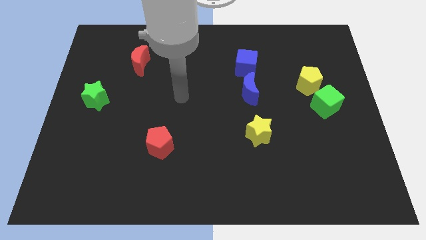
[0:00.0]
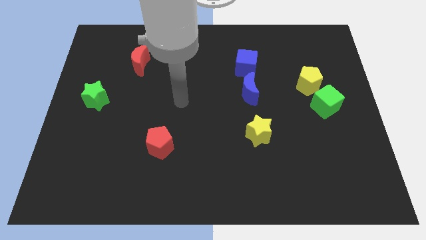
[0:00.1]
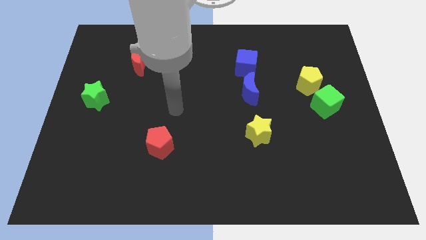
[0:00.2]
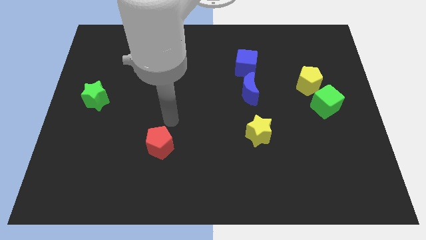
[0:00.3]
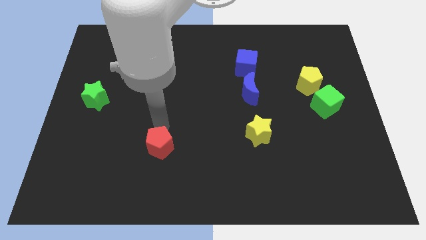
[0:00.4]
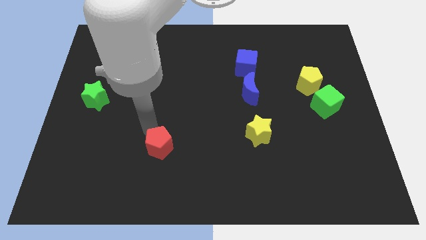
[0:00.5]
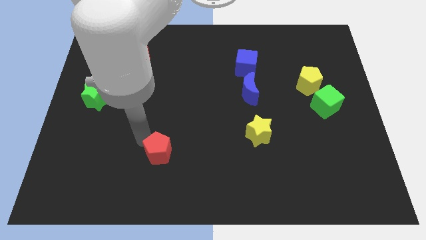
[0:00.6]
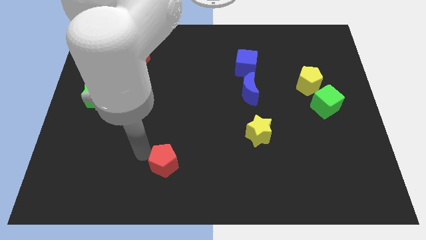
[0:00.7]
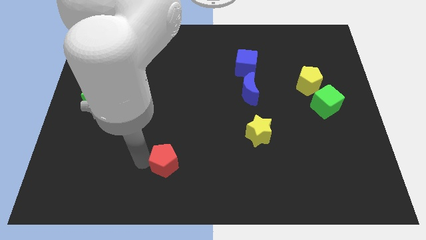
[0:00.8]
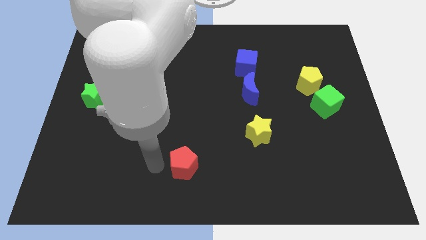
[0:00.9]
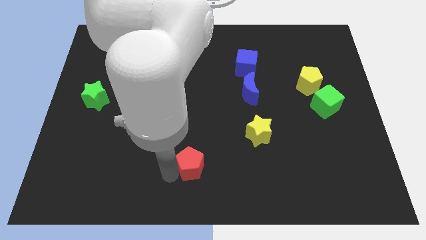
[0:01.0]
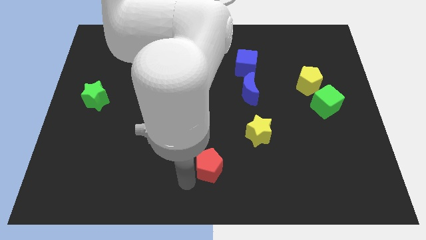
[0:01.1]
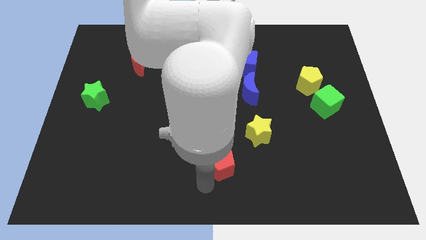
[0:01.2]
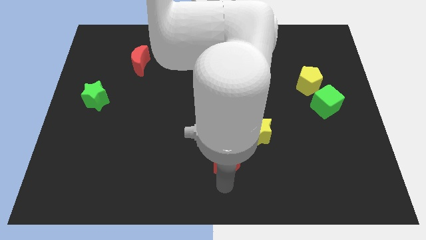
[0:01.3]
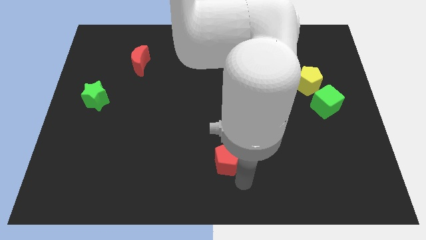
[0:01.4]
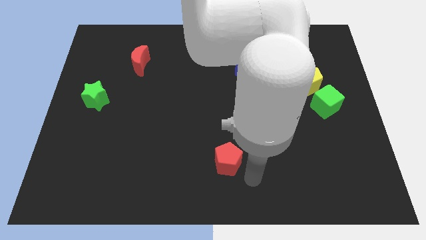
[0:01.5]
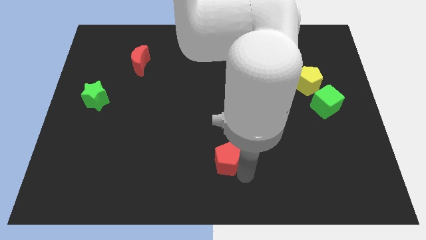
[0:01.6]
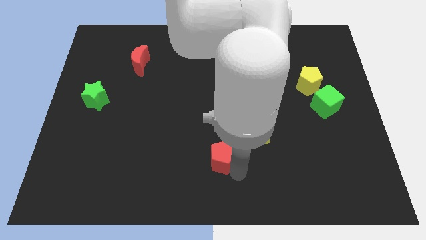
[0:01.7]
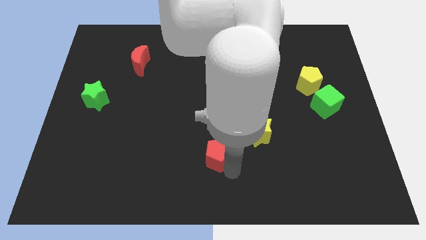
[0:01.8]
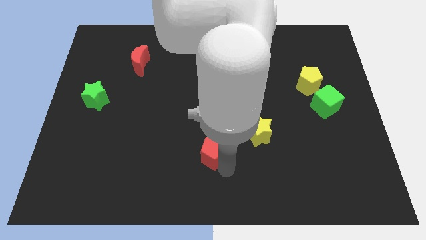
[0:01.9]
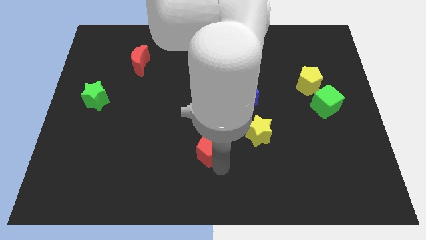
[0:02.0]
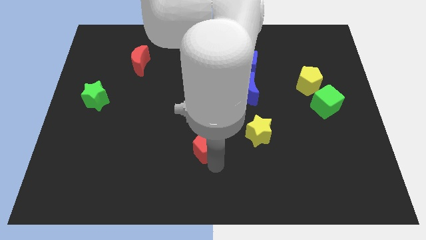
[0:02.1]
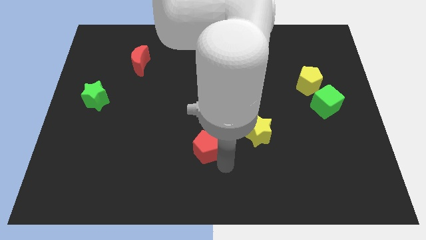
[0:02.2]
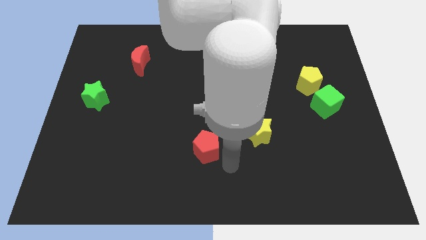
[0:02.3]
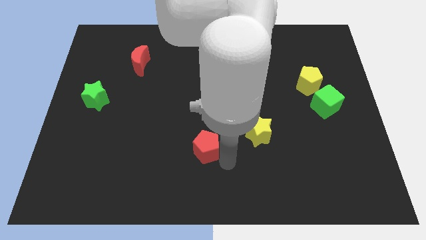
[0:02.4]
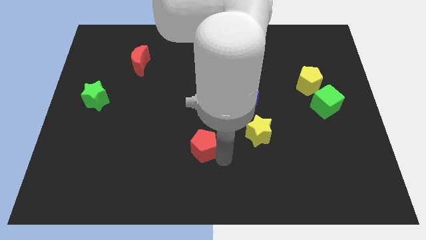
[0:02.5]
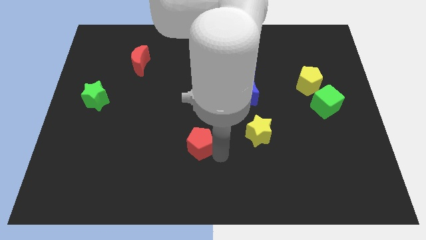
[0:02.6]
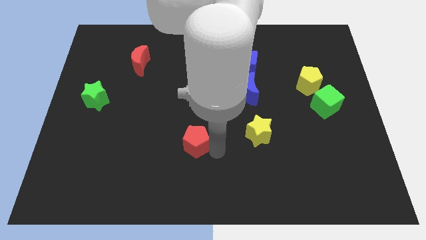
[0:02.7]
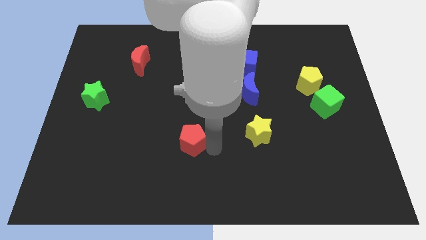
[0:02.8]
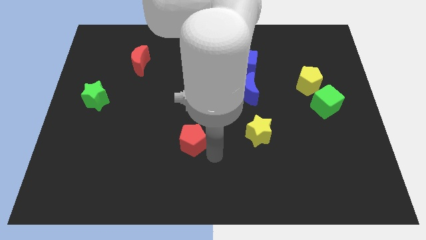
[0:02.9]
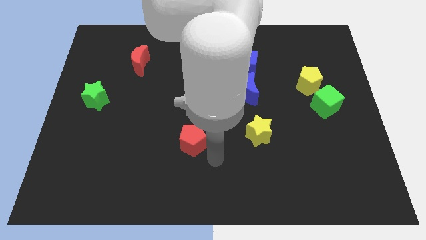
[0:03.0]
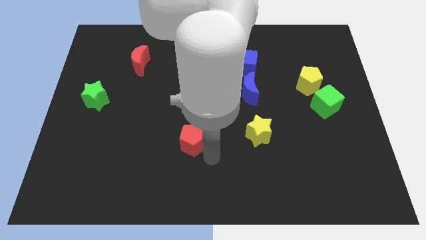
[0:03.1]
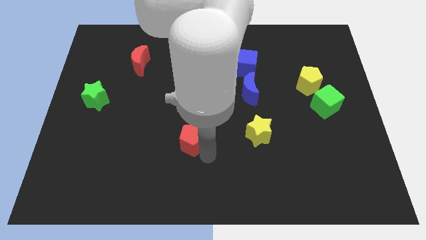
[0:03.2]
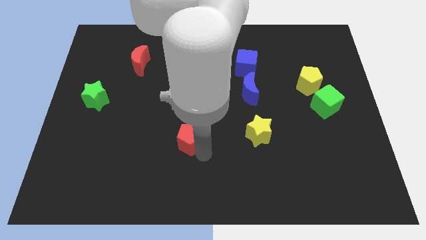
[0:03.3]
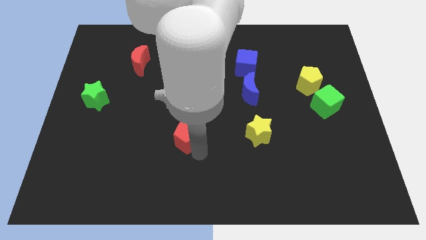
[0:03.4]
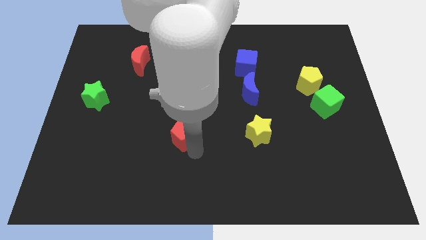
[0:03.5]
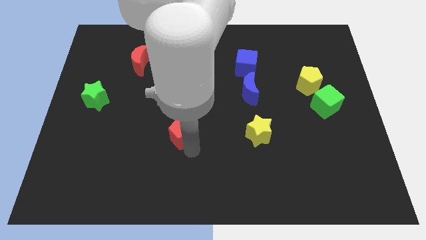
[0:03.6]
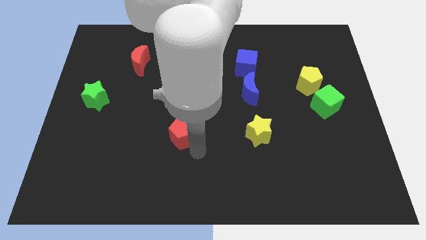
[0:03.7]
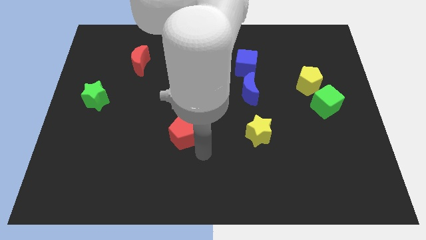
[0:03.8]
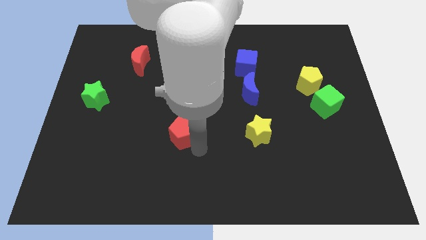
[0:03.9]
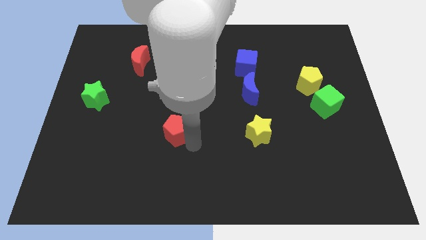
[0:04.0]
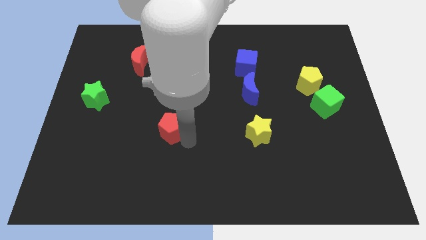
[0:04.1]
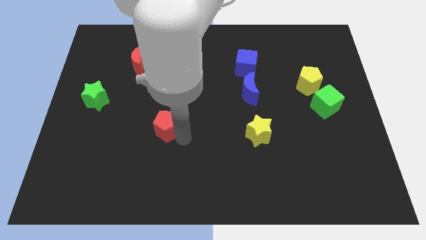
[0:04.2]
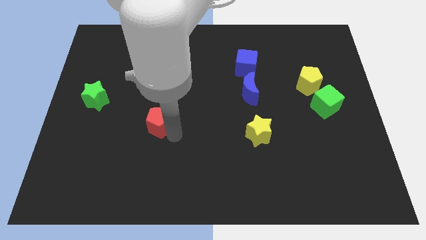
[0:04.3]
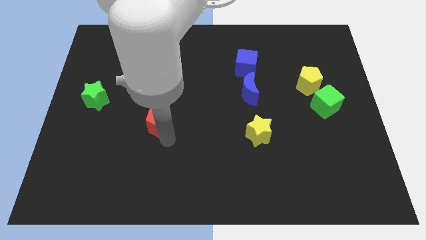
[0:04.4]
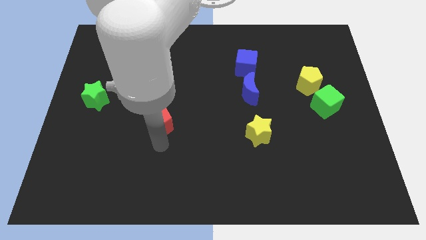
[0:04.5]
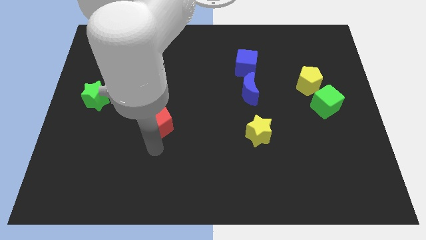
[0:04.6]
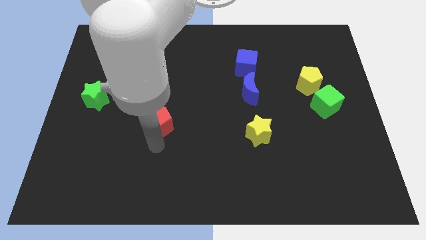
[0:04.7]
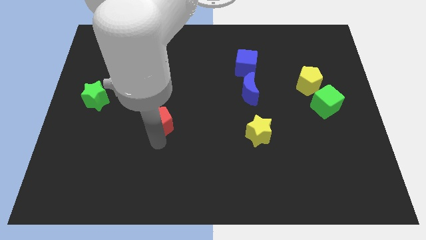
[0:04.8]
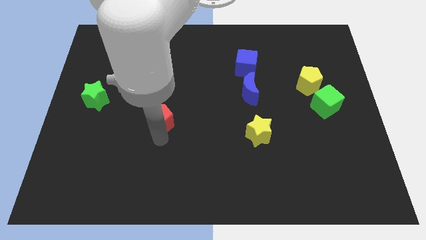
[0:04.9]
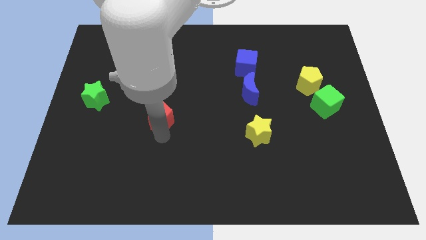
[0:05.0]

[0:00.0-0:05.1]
move the red pentagon upwards slightly

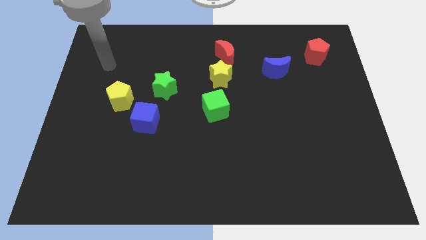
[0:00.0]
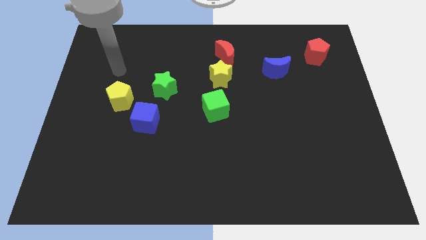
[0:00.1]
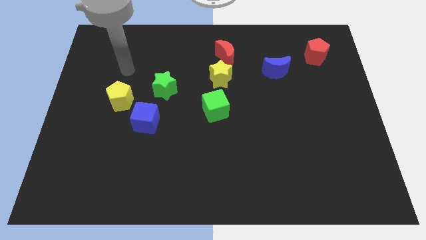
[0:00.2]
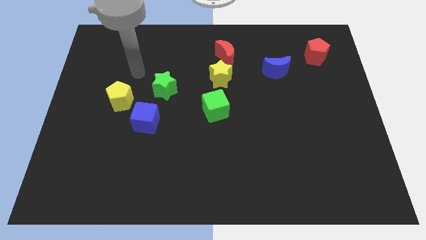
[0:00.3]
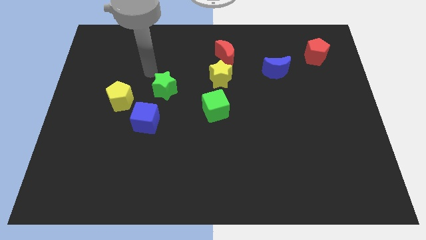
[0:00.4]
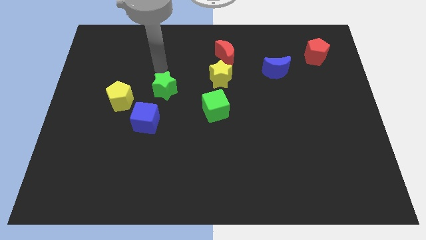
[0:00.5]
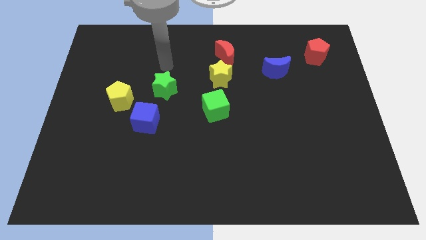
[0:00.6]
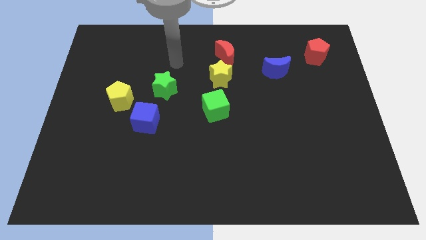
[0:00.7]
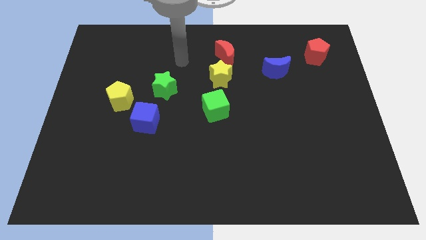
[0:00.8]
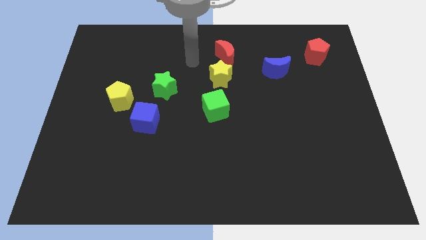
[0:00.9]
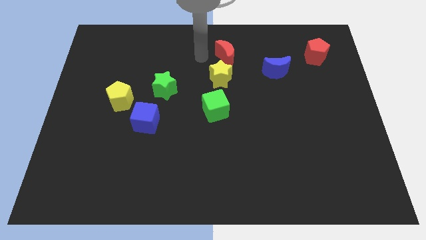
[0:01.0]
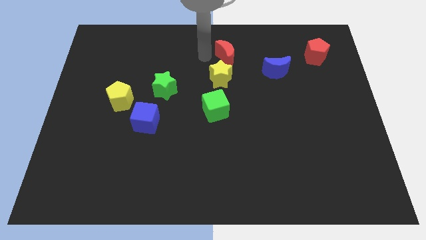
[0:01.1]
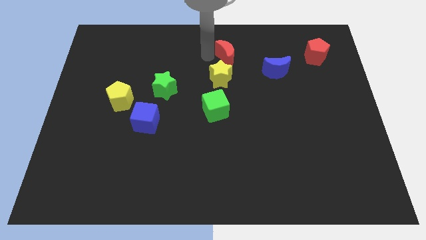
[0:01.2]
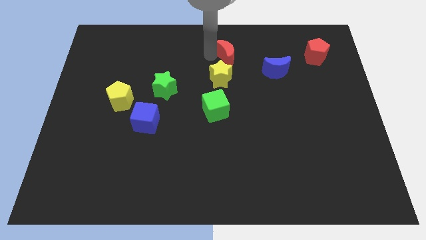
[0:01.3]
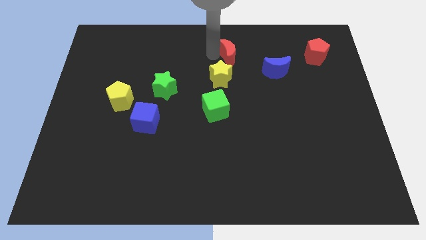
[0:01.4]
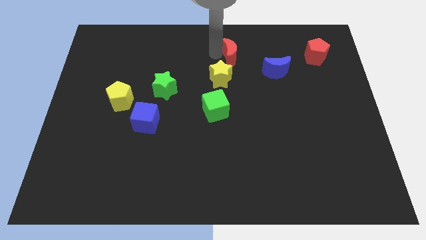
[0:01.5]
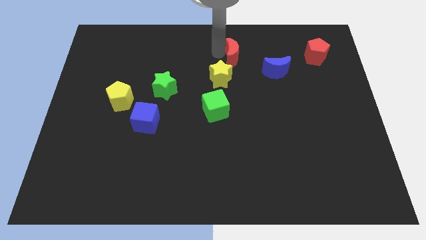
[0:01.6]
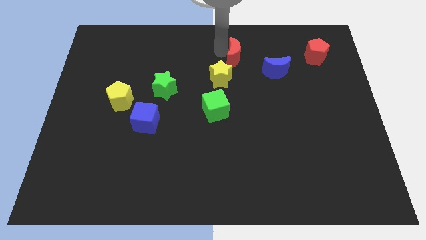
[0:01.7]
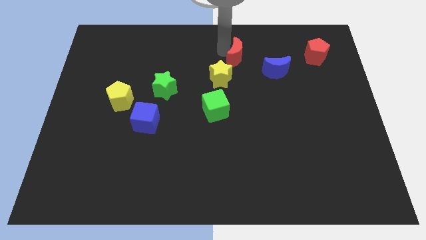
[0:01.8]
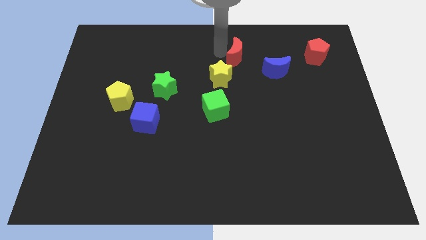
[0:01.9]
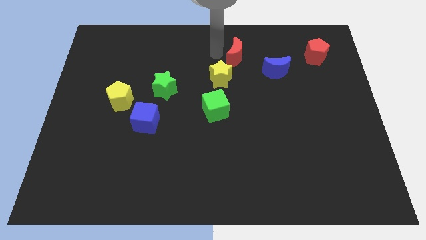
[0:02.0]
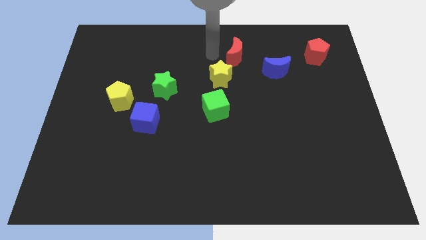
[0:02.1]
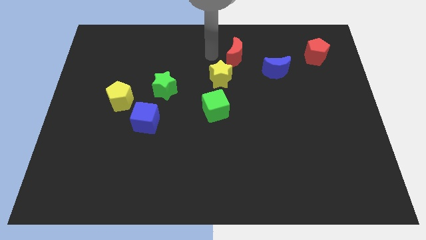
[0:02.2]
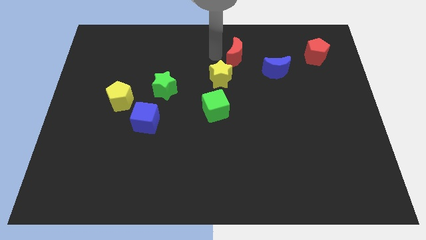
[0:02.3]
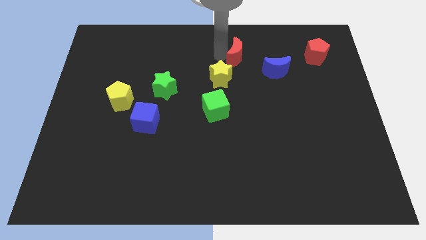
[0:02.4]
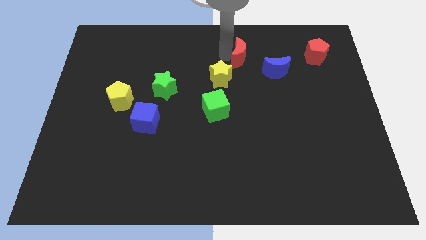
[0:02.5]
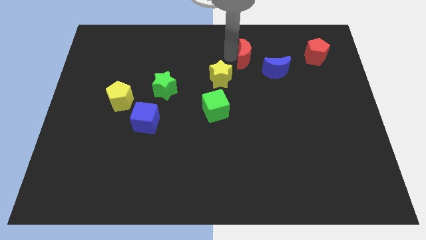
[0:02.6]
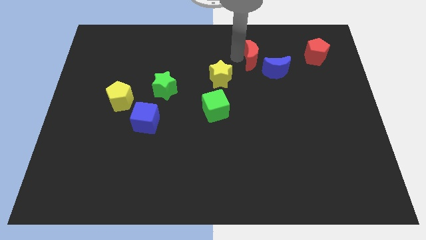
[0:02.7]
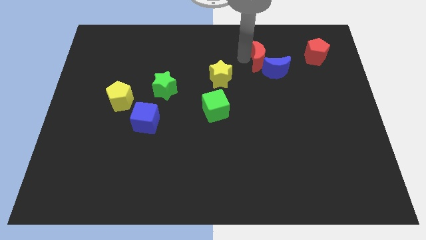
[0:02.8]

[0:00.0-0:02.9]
slightly move the red moon to the right
